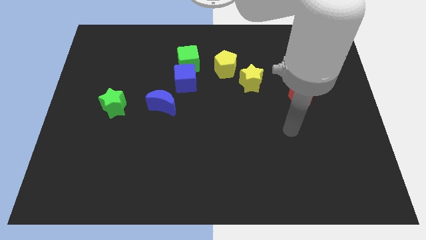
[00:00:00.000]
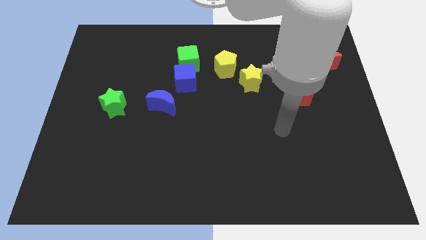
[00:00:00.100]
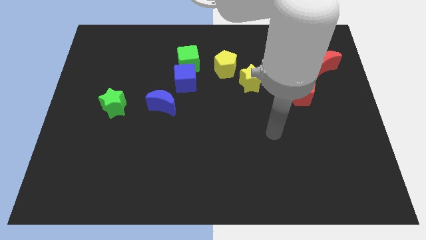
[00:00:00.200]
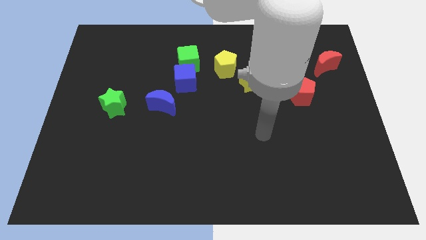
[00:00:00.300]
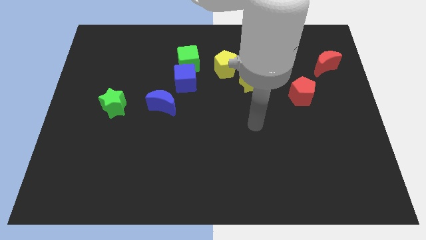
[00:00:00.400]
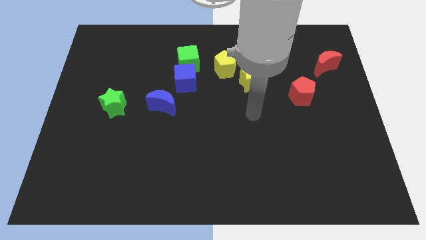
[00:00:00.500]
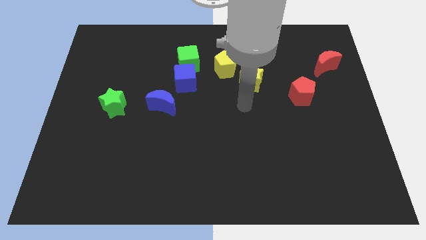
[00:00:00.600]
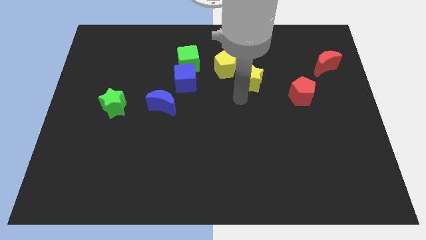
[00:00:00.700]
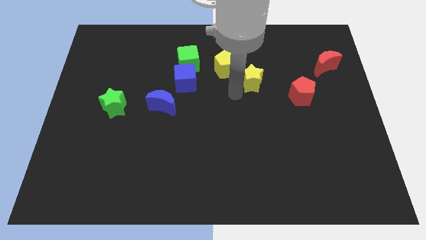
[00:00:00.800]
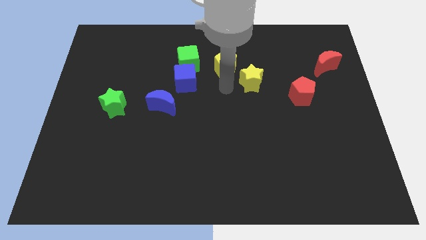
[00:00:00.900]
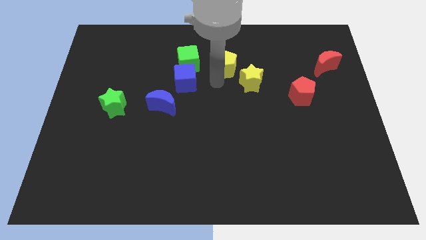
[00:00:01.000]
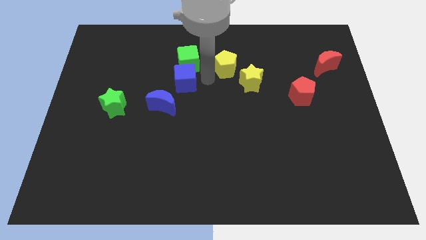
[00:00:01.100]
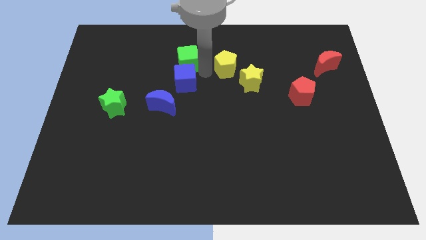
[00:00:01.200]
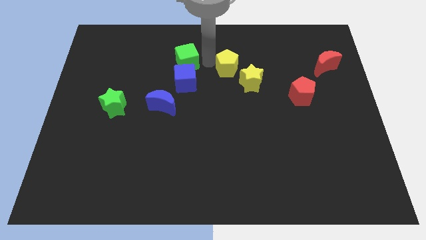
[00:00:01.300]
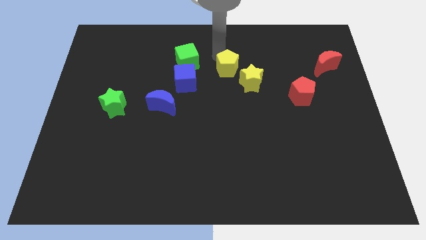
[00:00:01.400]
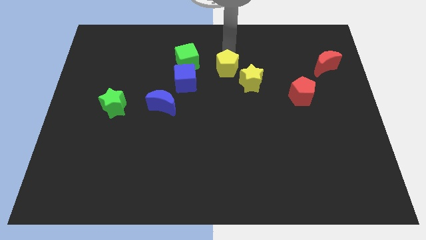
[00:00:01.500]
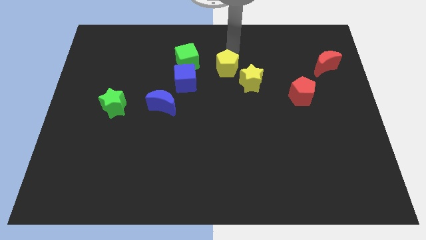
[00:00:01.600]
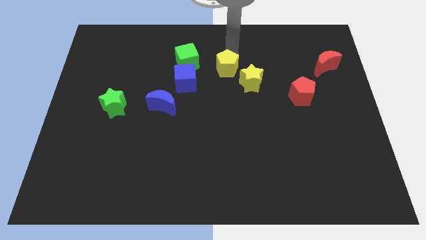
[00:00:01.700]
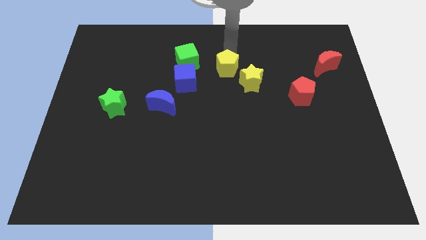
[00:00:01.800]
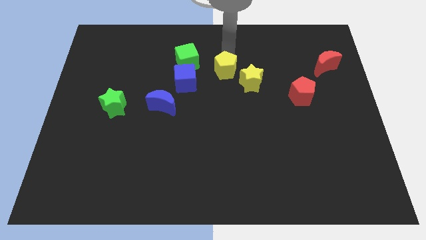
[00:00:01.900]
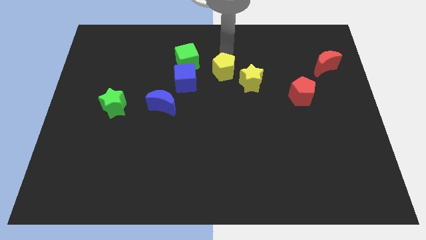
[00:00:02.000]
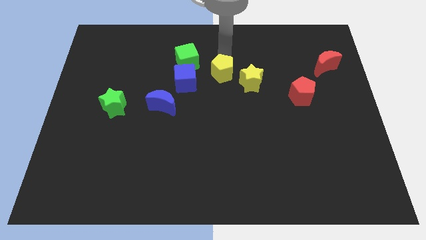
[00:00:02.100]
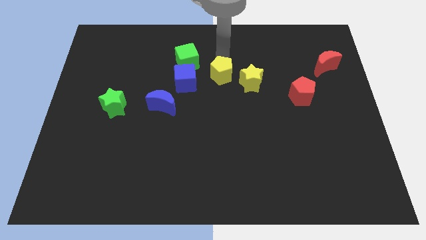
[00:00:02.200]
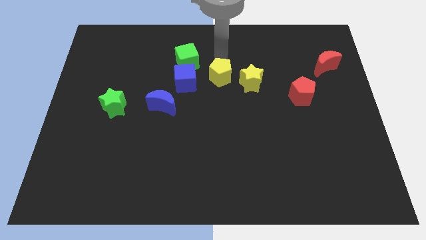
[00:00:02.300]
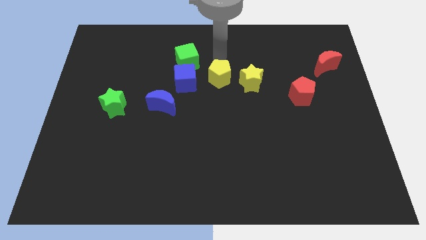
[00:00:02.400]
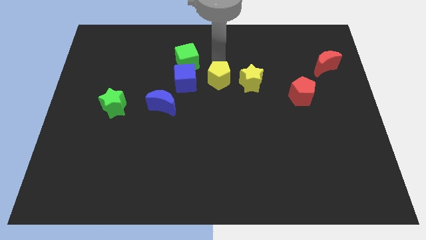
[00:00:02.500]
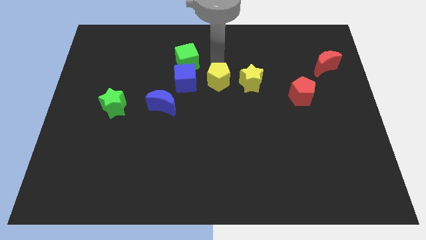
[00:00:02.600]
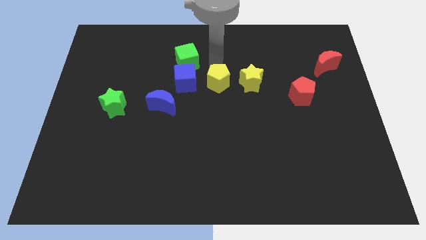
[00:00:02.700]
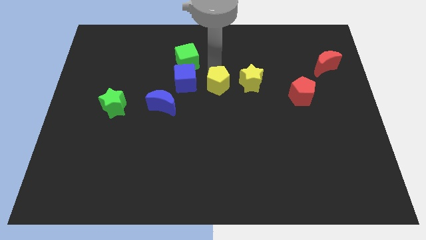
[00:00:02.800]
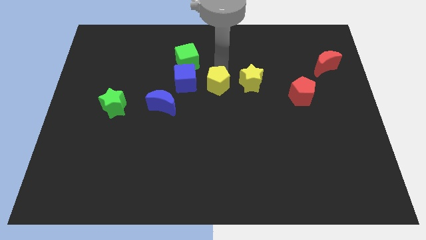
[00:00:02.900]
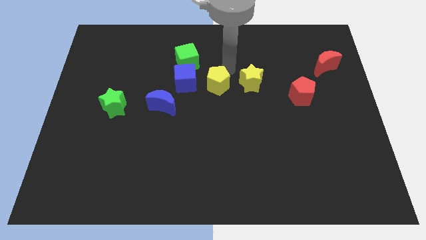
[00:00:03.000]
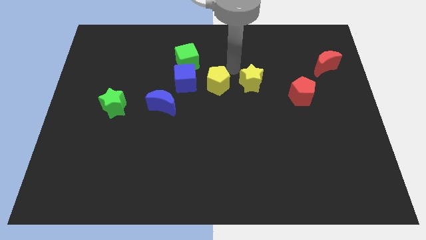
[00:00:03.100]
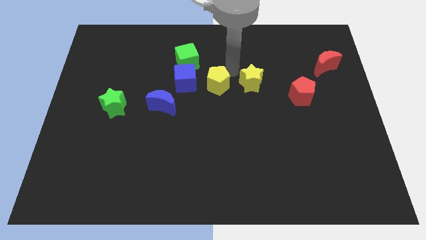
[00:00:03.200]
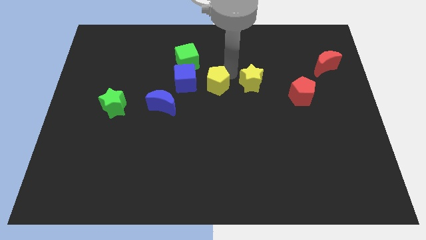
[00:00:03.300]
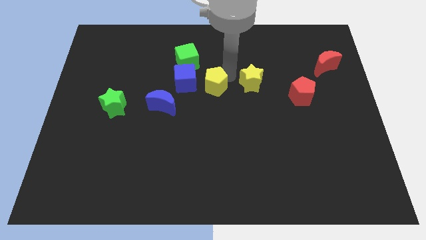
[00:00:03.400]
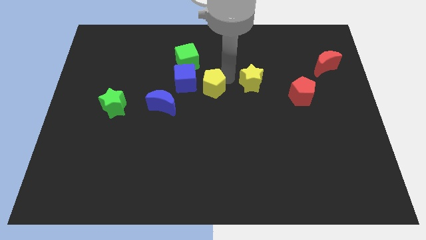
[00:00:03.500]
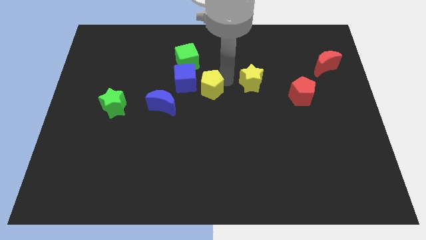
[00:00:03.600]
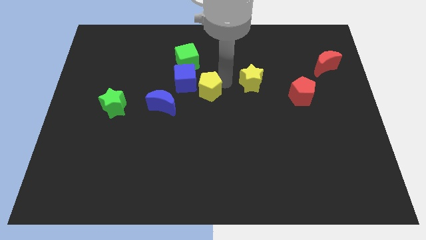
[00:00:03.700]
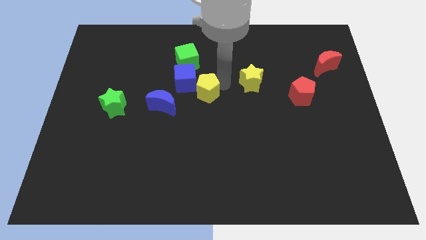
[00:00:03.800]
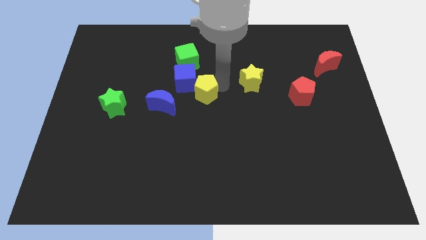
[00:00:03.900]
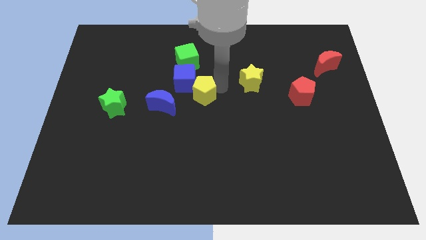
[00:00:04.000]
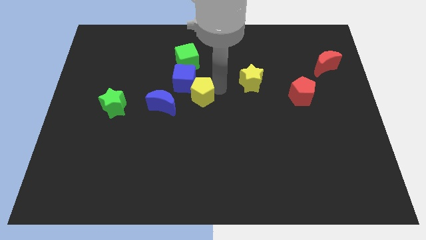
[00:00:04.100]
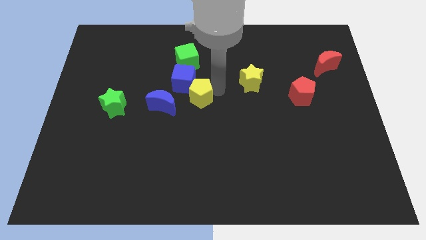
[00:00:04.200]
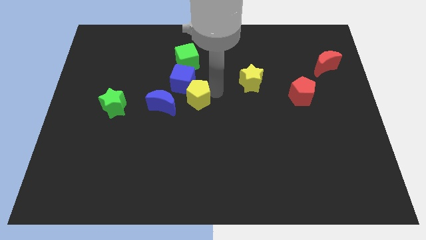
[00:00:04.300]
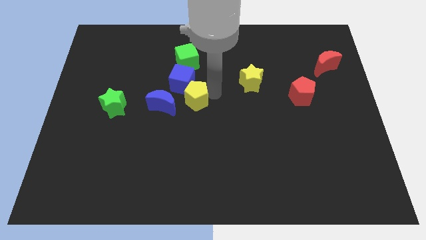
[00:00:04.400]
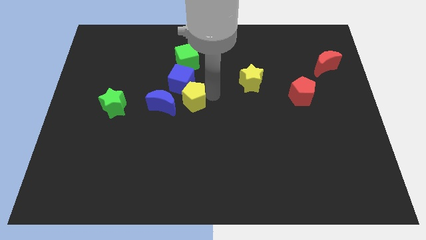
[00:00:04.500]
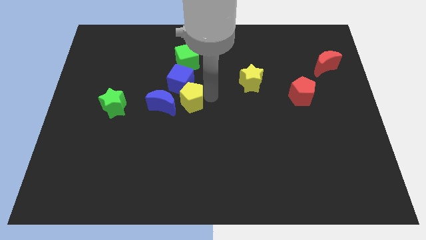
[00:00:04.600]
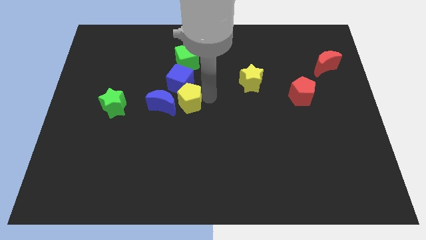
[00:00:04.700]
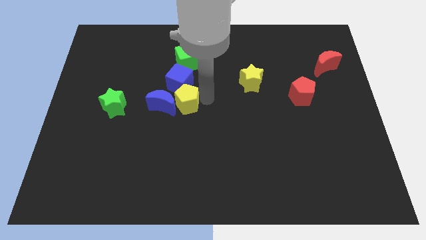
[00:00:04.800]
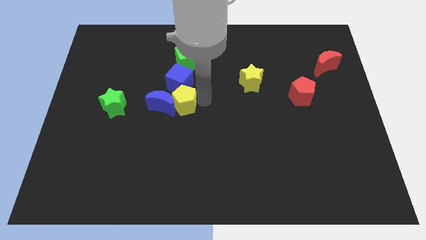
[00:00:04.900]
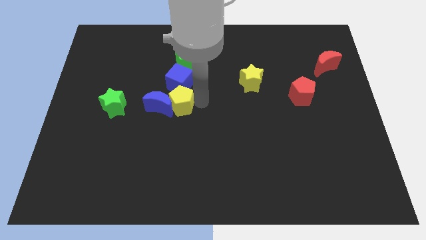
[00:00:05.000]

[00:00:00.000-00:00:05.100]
move the yellow pentagon to the right of the green star

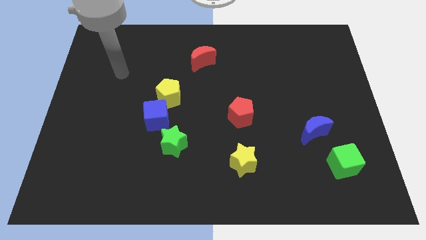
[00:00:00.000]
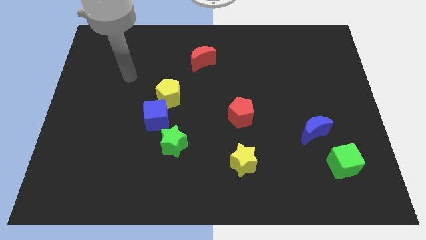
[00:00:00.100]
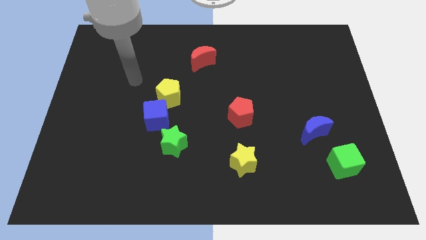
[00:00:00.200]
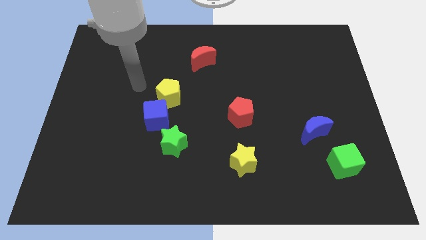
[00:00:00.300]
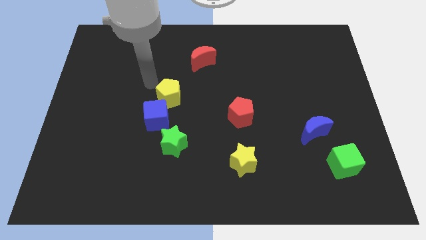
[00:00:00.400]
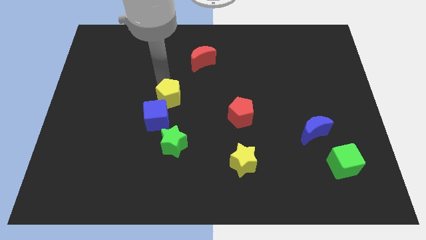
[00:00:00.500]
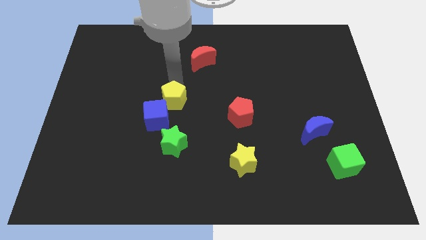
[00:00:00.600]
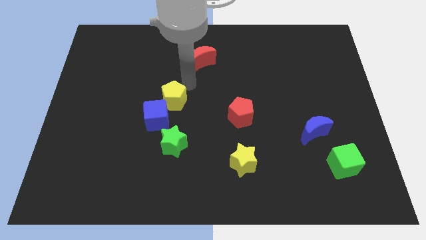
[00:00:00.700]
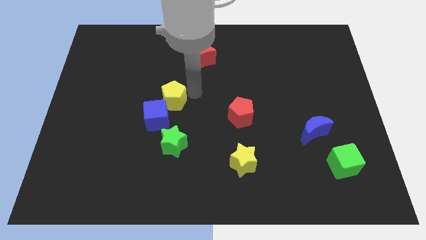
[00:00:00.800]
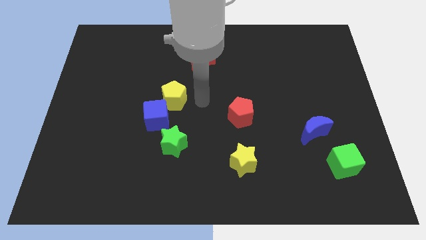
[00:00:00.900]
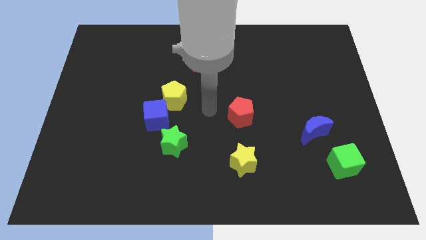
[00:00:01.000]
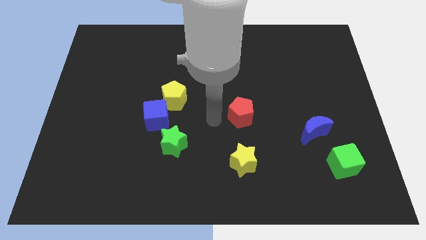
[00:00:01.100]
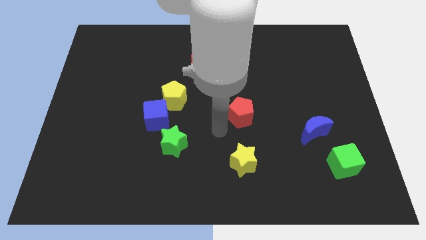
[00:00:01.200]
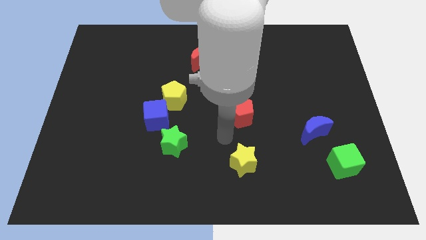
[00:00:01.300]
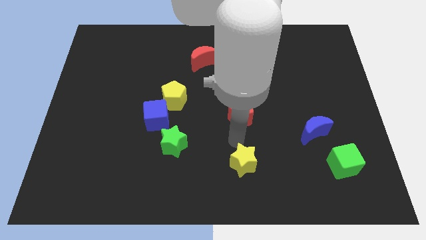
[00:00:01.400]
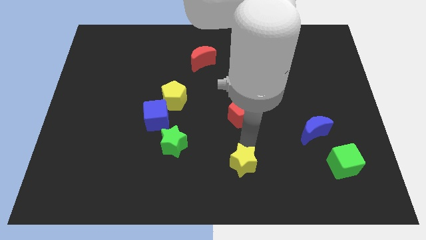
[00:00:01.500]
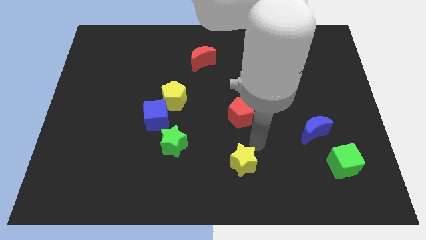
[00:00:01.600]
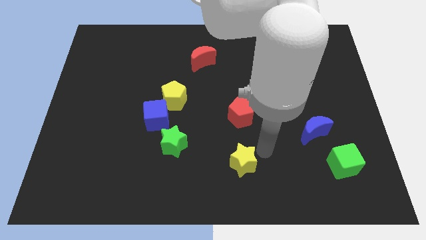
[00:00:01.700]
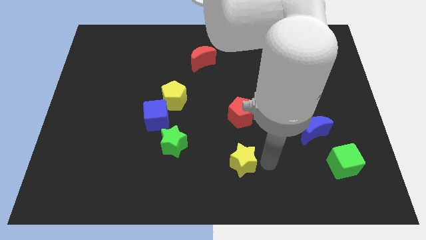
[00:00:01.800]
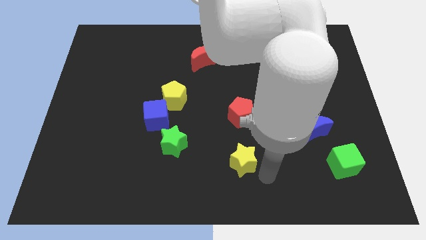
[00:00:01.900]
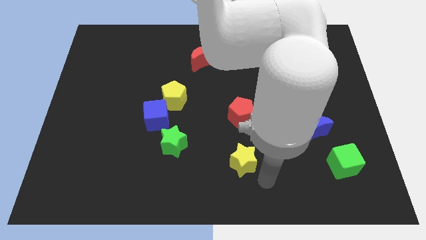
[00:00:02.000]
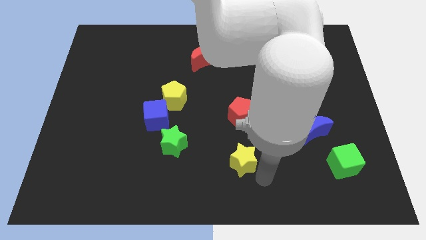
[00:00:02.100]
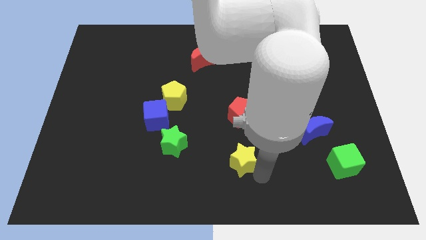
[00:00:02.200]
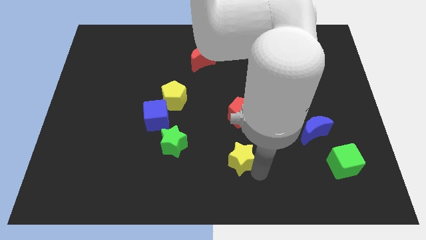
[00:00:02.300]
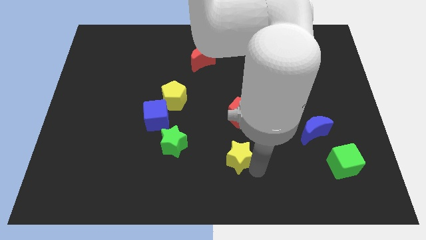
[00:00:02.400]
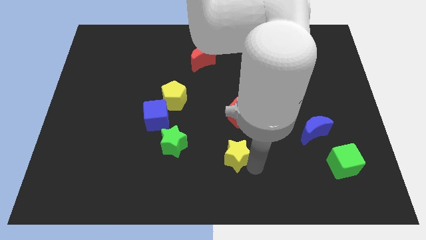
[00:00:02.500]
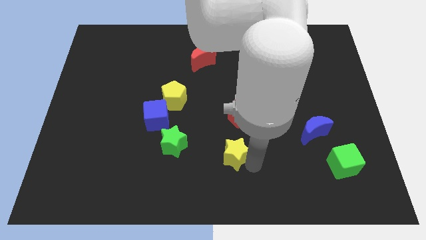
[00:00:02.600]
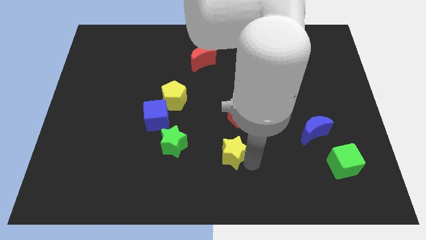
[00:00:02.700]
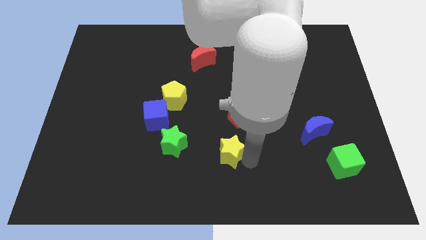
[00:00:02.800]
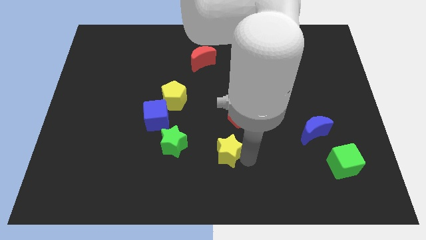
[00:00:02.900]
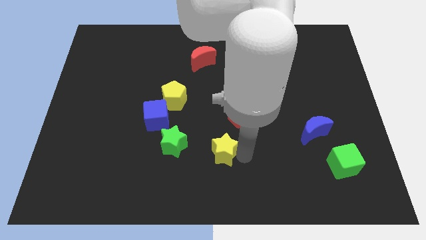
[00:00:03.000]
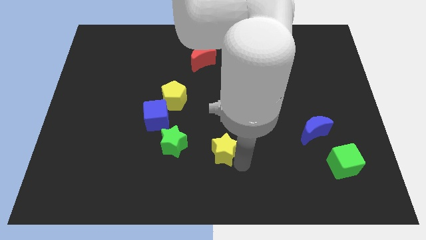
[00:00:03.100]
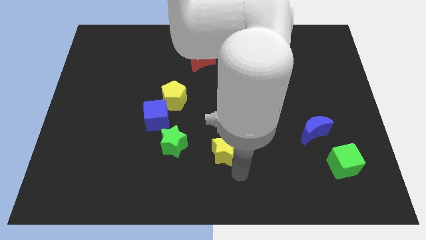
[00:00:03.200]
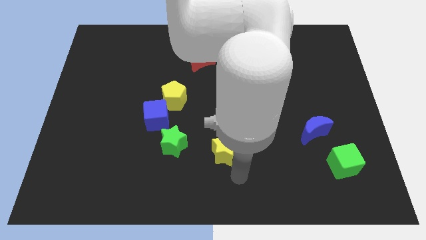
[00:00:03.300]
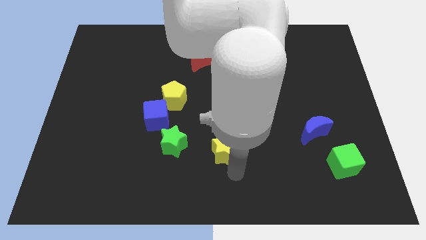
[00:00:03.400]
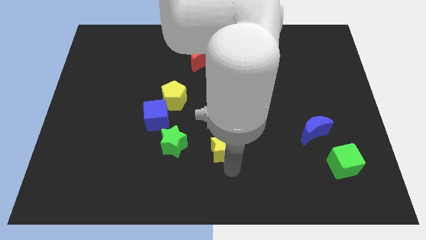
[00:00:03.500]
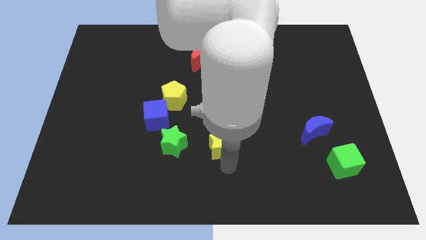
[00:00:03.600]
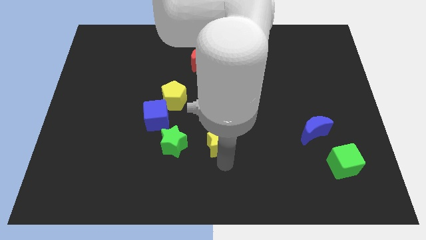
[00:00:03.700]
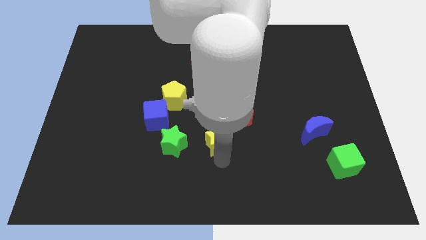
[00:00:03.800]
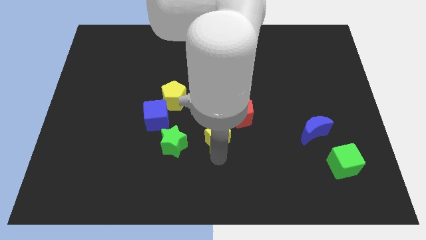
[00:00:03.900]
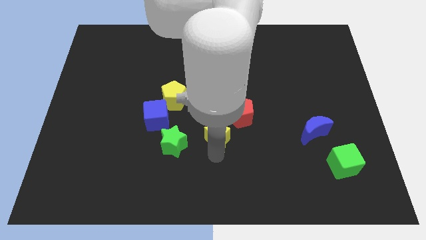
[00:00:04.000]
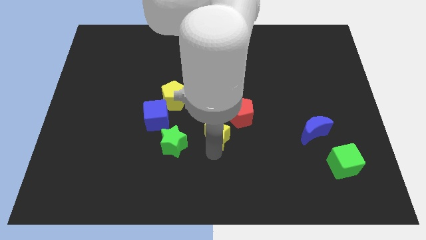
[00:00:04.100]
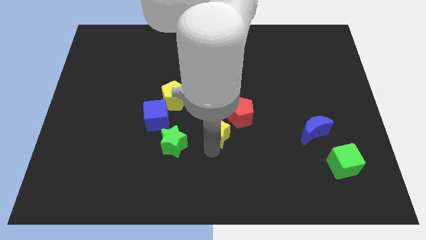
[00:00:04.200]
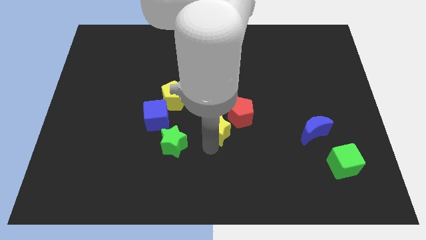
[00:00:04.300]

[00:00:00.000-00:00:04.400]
move the yellow star to the right side of the blue cube
